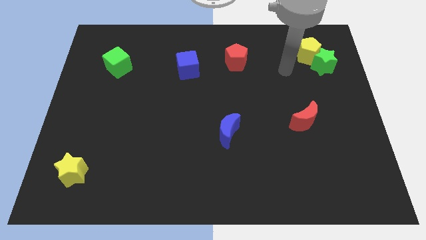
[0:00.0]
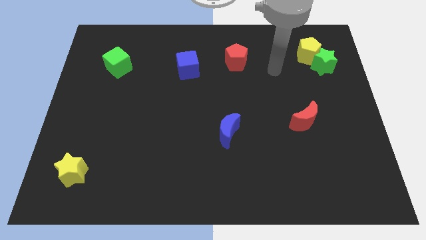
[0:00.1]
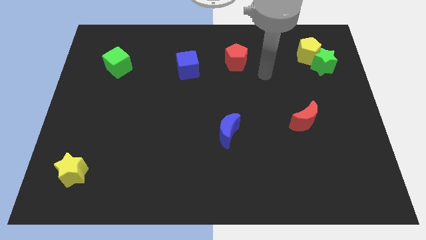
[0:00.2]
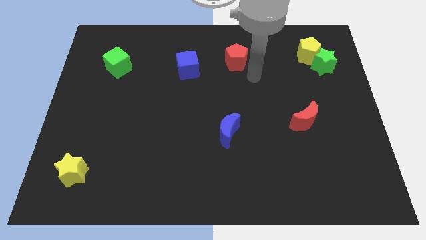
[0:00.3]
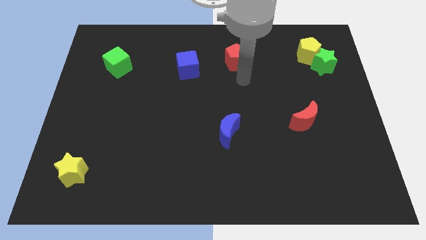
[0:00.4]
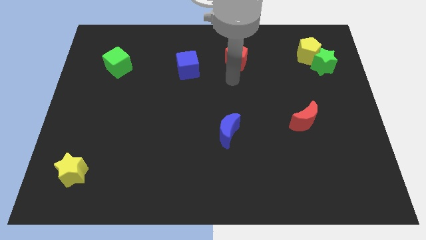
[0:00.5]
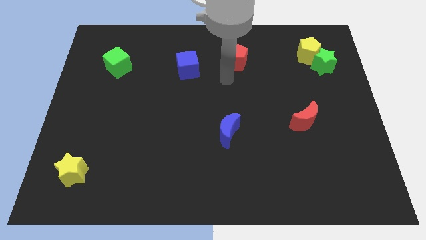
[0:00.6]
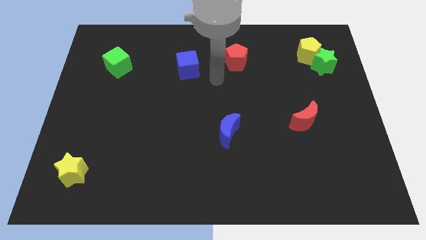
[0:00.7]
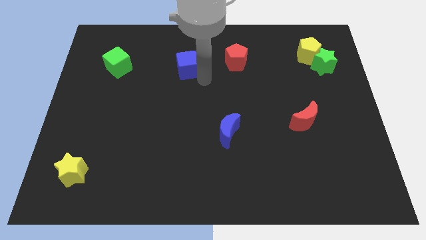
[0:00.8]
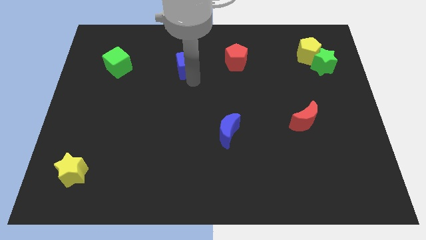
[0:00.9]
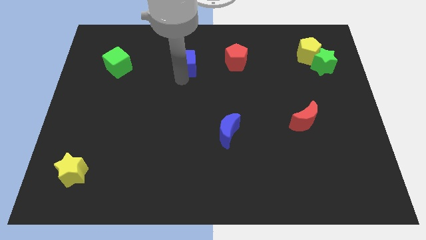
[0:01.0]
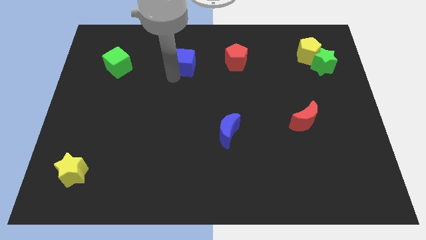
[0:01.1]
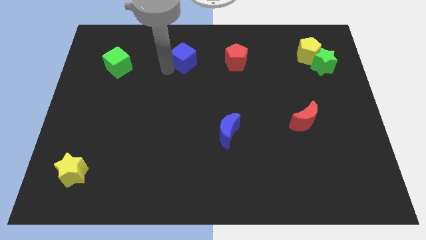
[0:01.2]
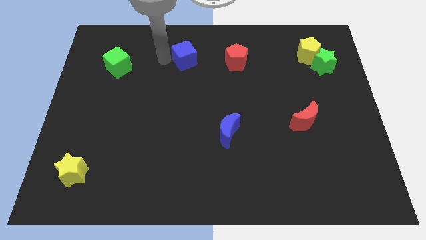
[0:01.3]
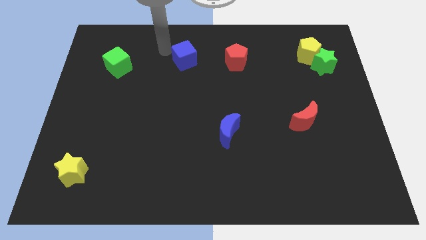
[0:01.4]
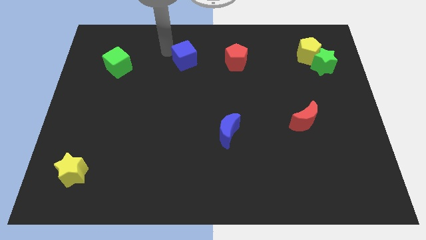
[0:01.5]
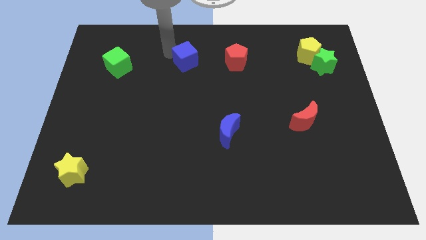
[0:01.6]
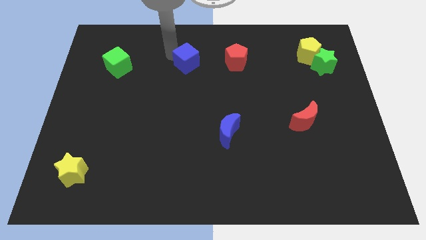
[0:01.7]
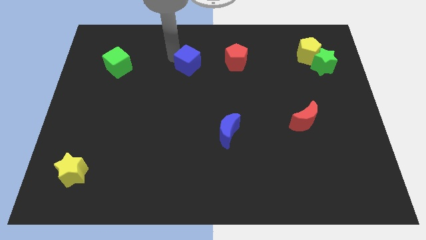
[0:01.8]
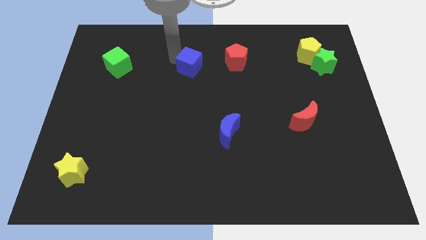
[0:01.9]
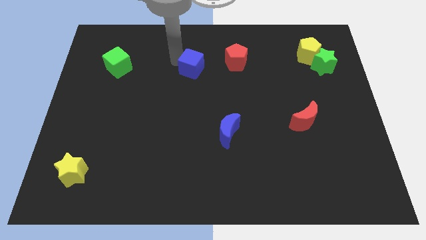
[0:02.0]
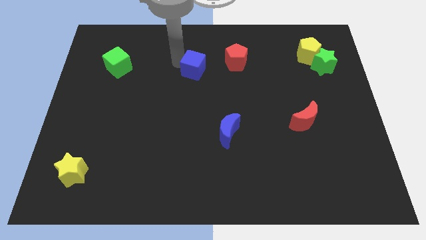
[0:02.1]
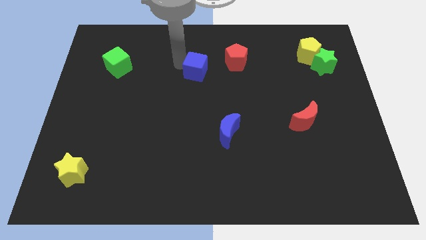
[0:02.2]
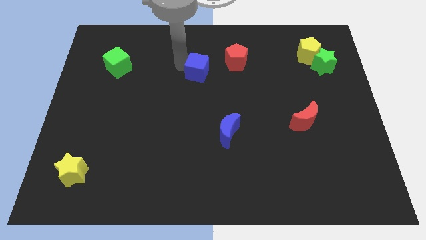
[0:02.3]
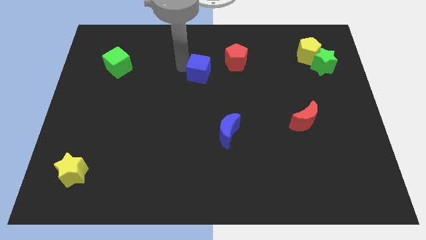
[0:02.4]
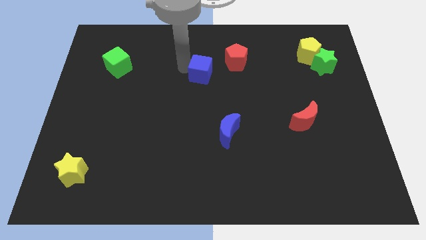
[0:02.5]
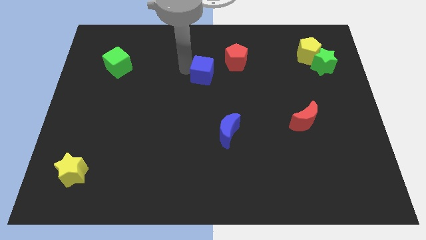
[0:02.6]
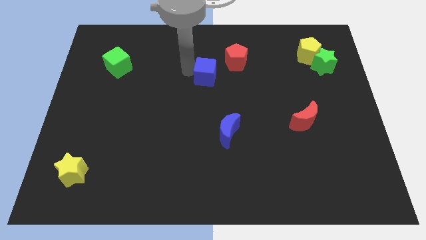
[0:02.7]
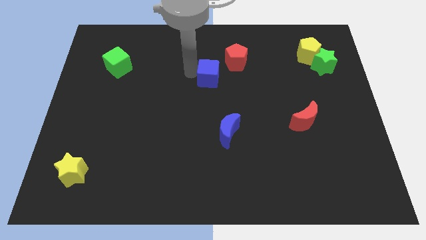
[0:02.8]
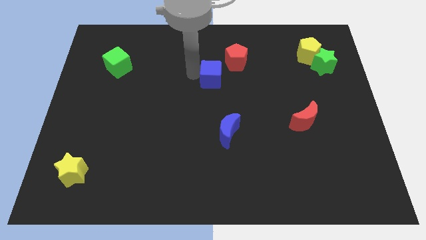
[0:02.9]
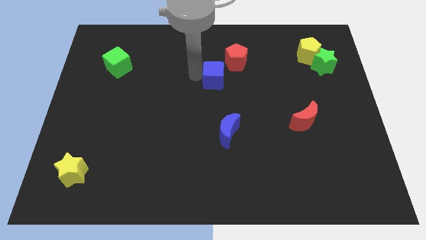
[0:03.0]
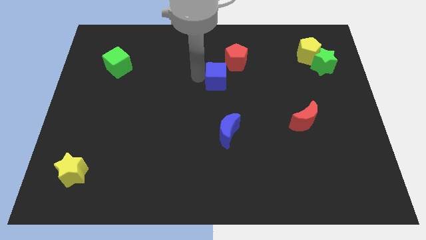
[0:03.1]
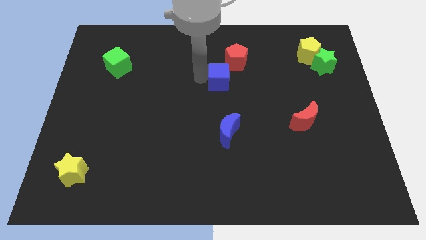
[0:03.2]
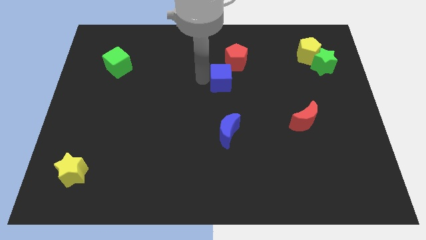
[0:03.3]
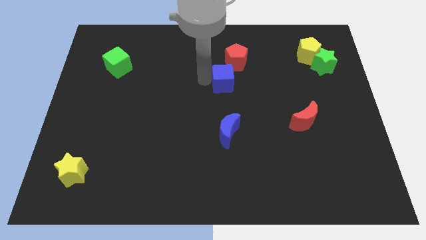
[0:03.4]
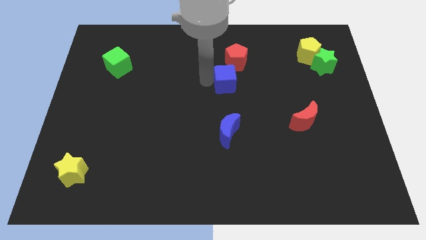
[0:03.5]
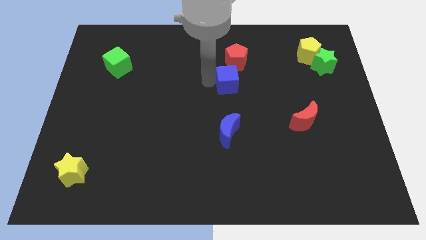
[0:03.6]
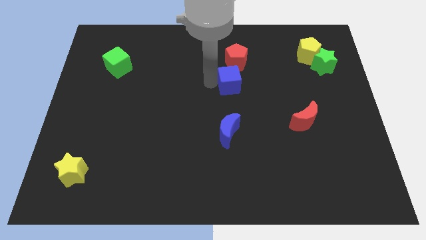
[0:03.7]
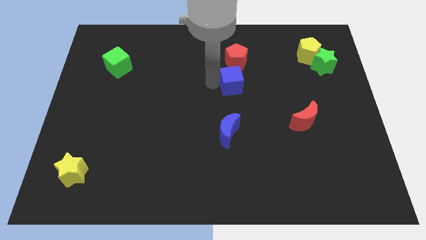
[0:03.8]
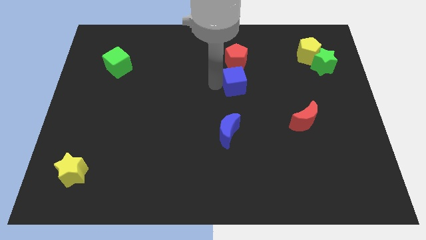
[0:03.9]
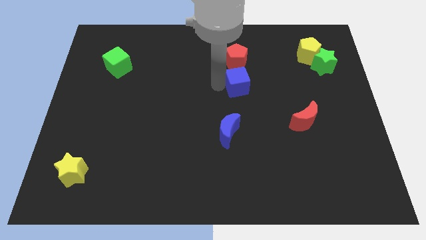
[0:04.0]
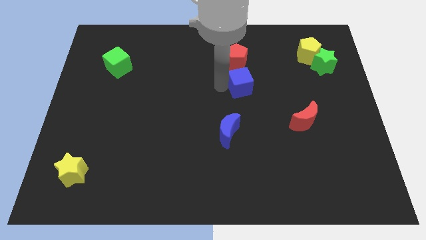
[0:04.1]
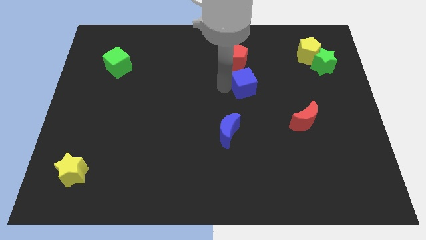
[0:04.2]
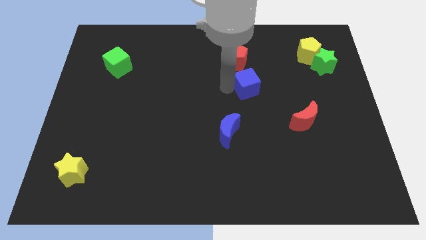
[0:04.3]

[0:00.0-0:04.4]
push the blue cube to the bottom right side of the red pentagon

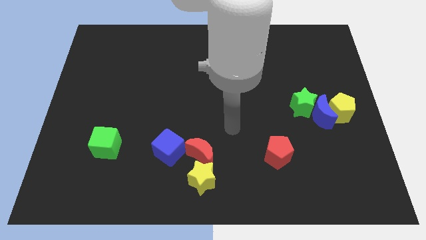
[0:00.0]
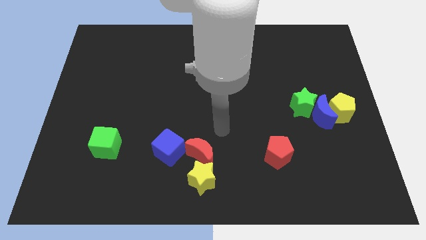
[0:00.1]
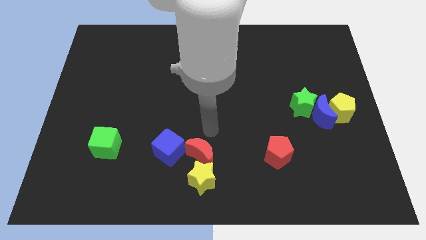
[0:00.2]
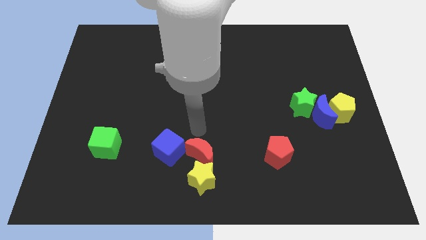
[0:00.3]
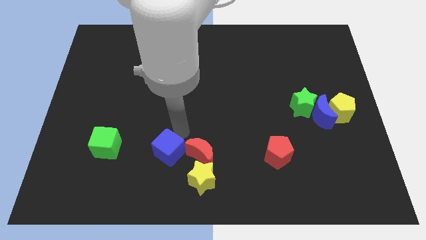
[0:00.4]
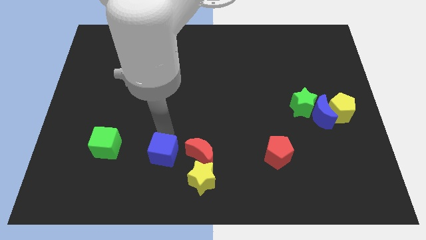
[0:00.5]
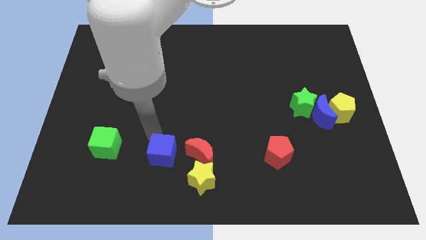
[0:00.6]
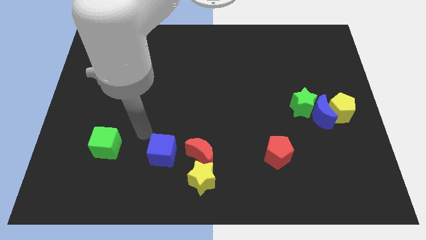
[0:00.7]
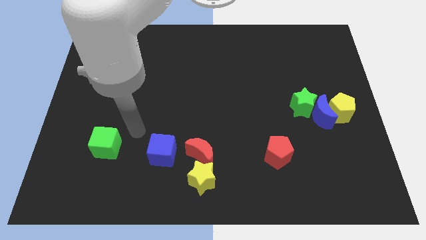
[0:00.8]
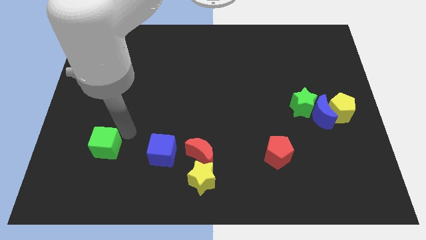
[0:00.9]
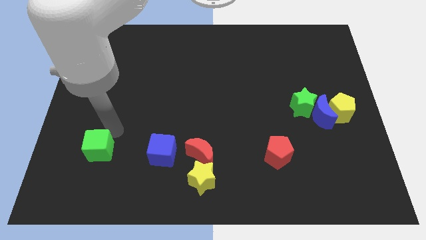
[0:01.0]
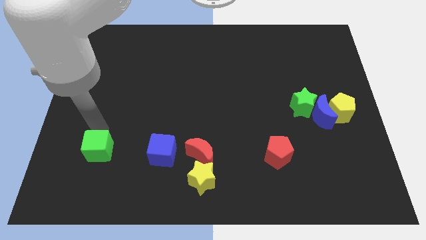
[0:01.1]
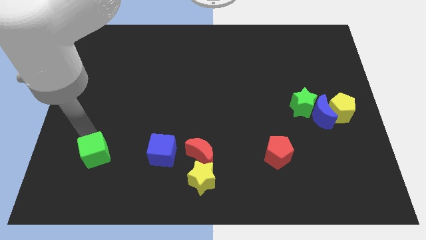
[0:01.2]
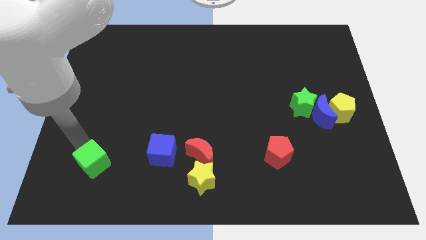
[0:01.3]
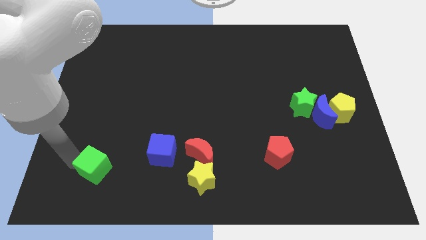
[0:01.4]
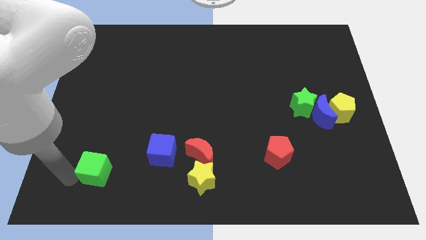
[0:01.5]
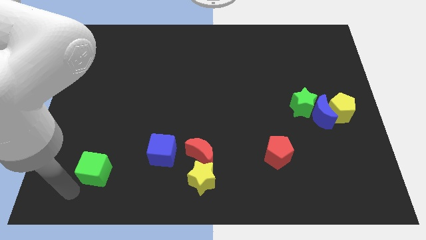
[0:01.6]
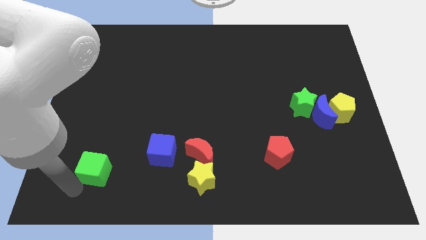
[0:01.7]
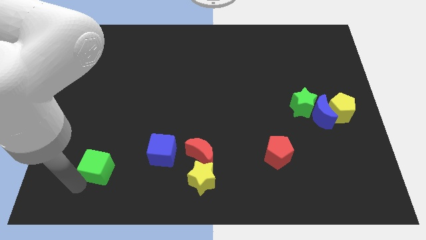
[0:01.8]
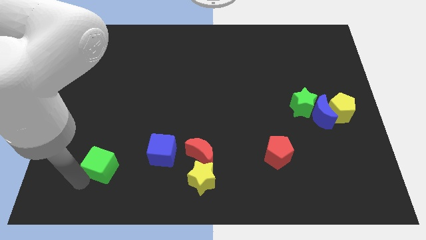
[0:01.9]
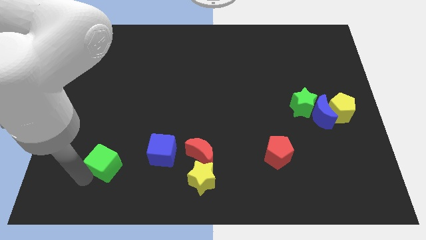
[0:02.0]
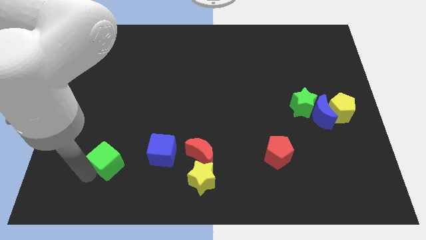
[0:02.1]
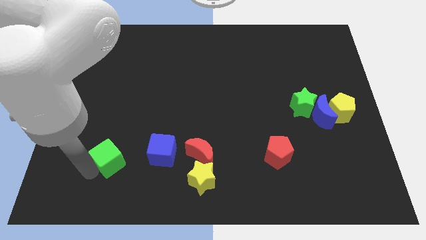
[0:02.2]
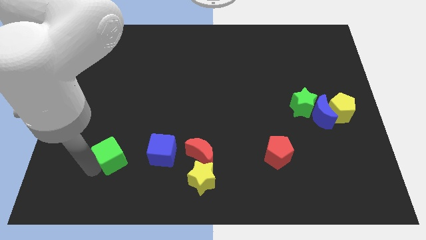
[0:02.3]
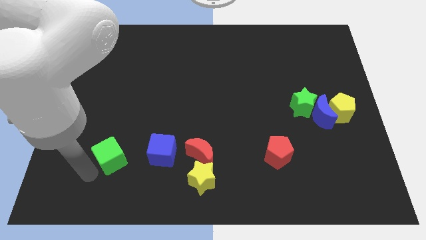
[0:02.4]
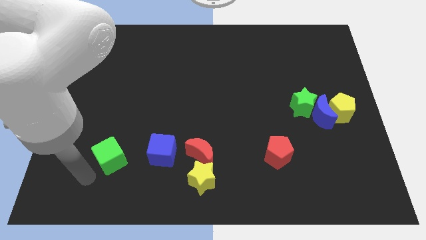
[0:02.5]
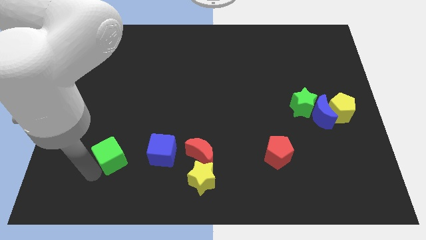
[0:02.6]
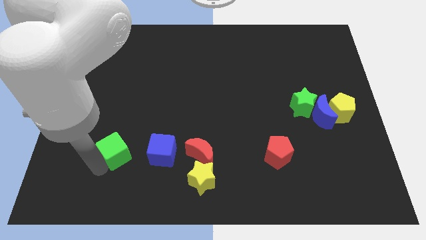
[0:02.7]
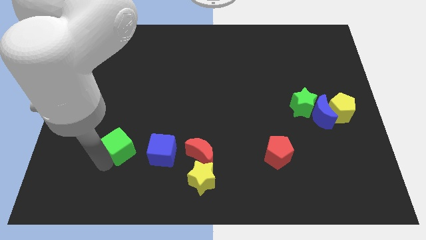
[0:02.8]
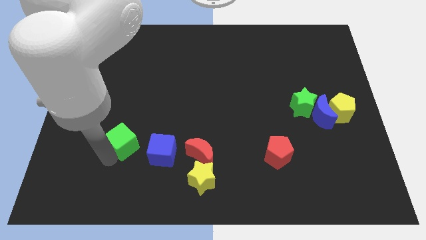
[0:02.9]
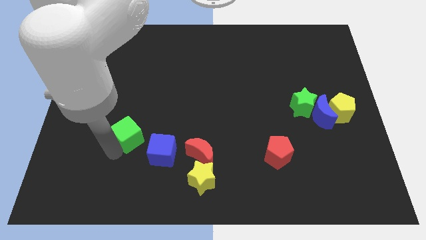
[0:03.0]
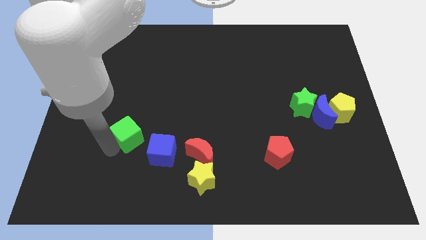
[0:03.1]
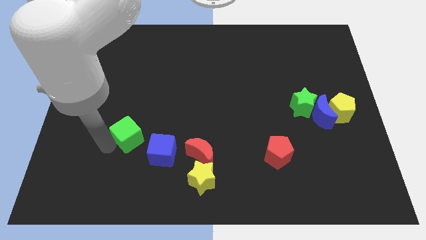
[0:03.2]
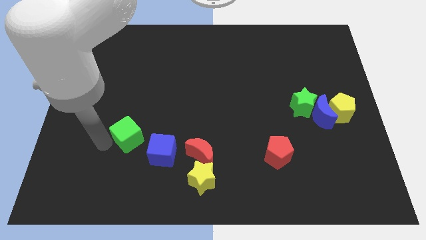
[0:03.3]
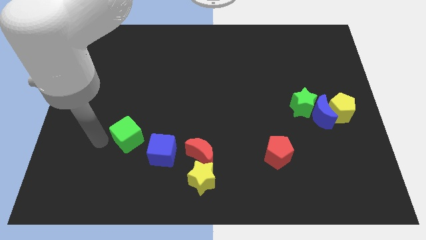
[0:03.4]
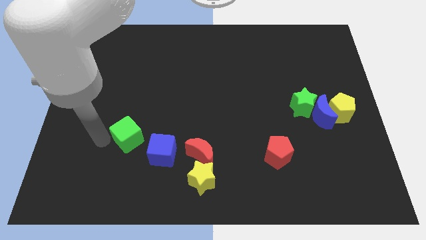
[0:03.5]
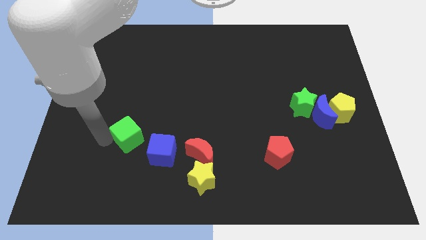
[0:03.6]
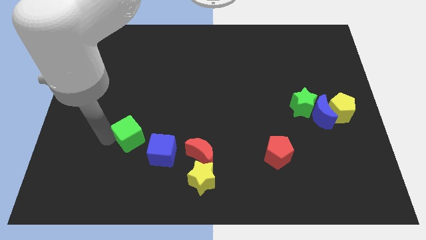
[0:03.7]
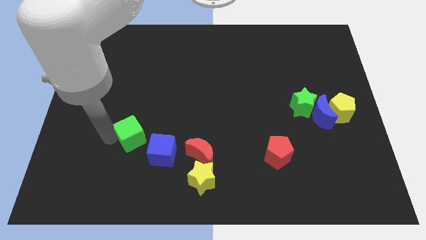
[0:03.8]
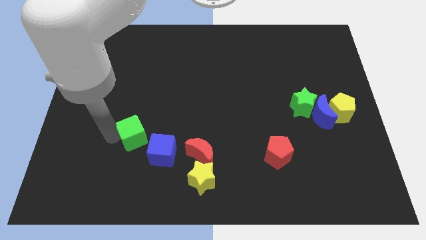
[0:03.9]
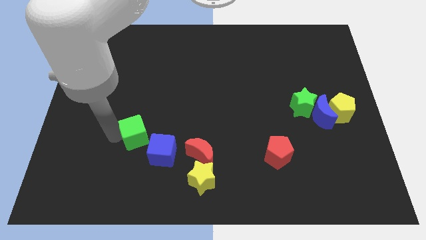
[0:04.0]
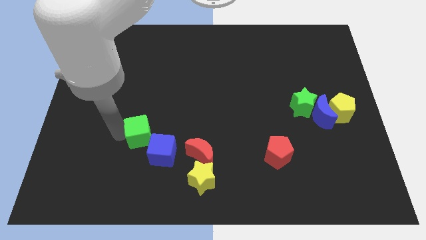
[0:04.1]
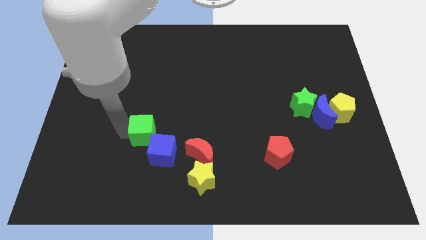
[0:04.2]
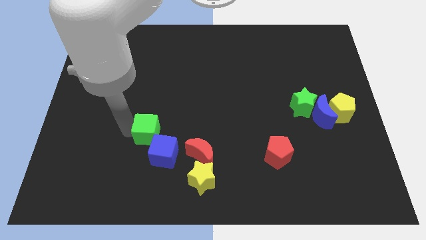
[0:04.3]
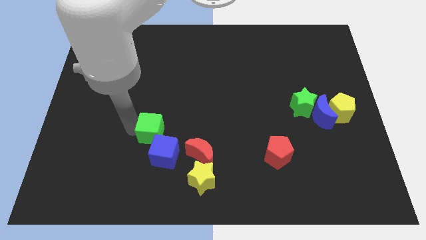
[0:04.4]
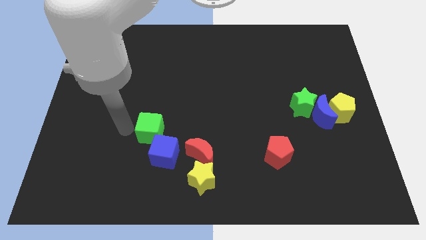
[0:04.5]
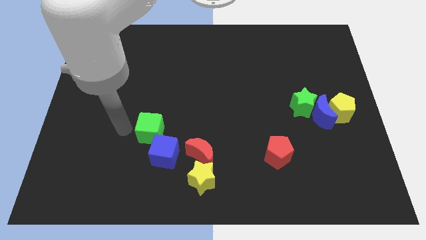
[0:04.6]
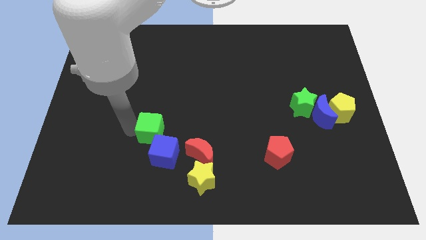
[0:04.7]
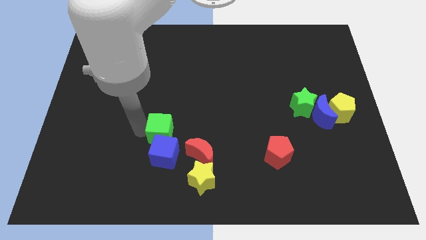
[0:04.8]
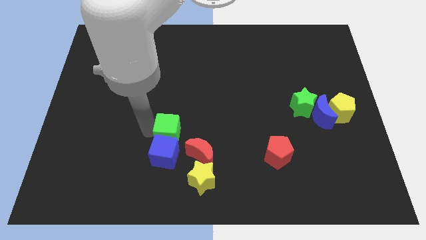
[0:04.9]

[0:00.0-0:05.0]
slide the green cube to the top right side of the blue cube
